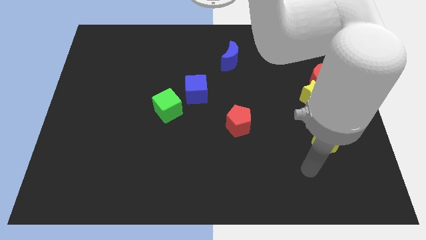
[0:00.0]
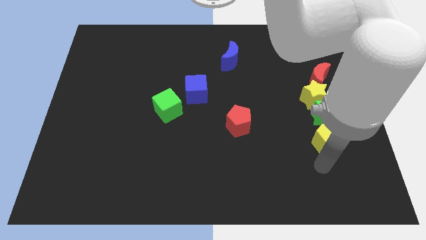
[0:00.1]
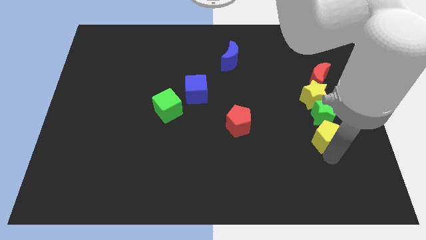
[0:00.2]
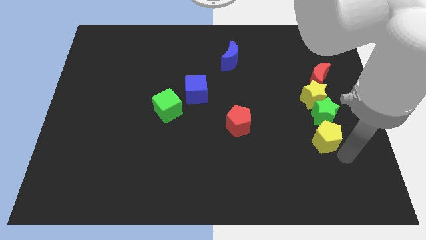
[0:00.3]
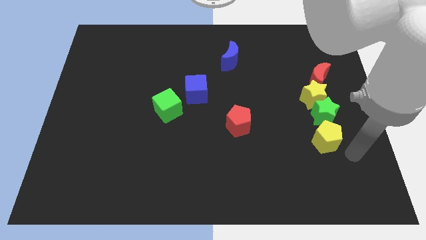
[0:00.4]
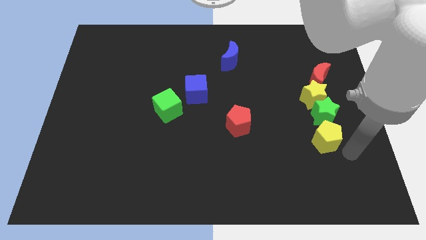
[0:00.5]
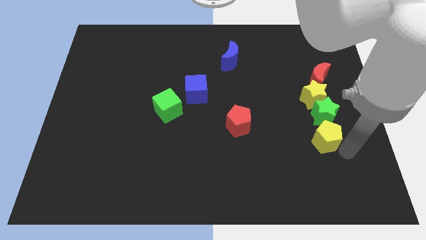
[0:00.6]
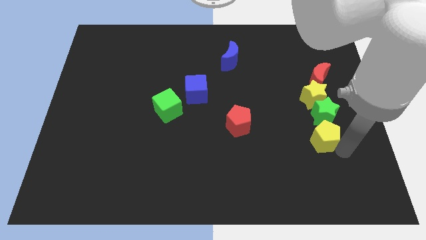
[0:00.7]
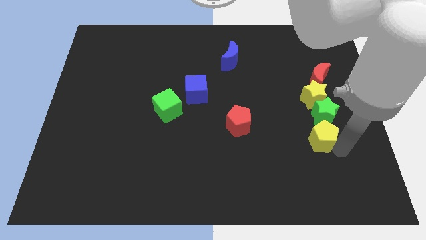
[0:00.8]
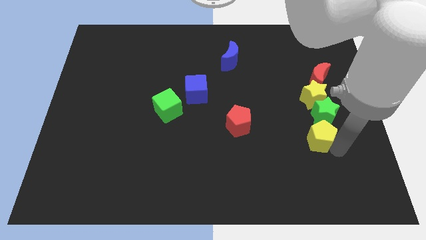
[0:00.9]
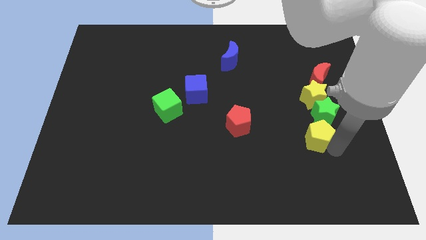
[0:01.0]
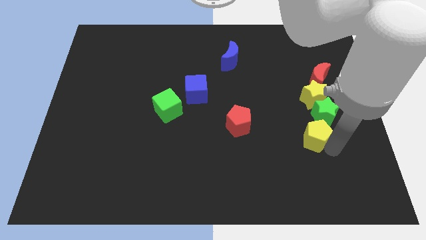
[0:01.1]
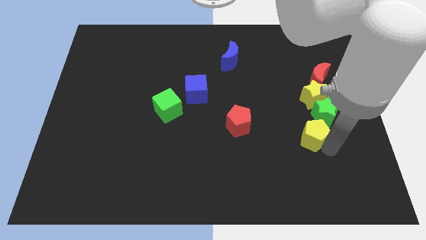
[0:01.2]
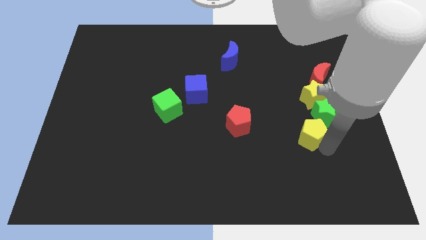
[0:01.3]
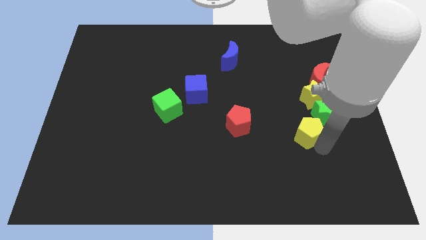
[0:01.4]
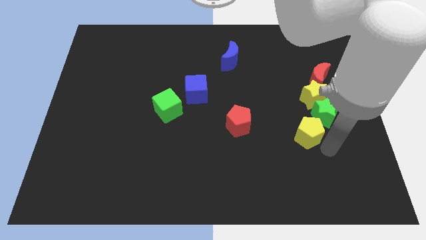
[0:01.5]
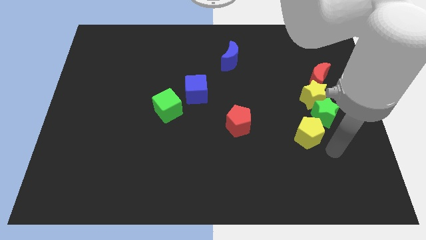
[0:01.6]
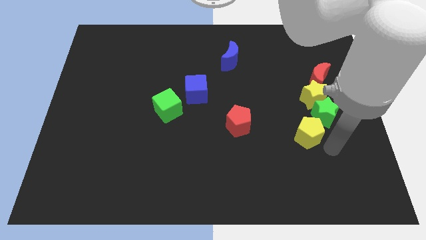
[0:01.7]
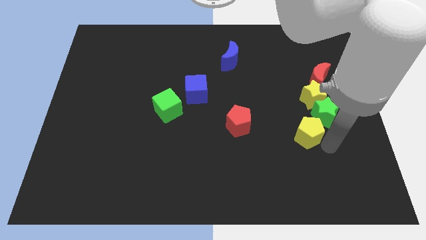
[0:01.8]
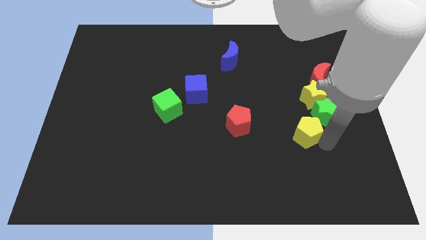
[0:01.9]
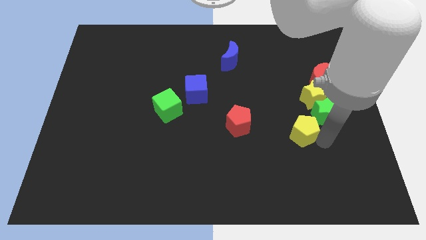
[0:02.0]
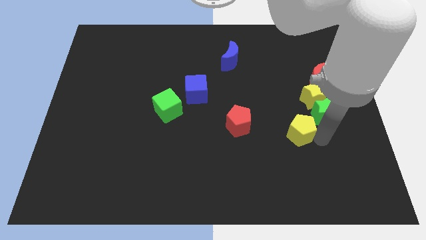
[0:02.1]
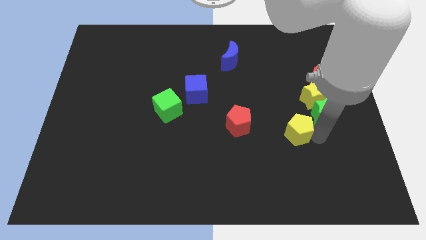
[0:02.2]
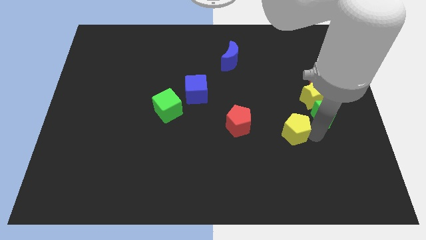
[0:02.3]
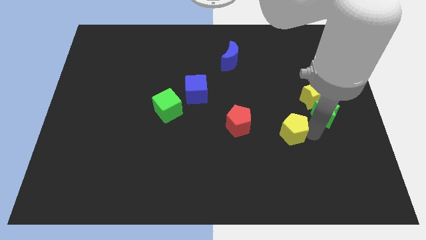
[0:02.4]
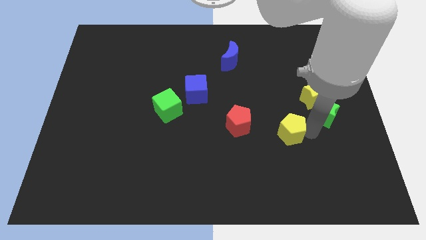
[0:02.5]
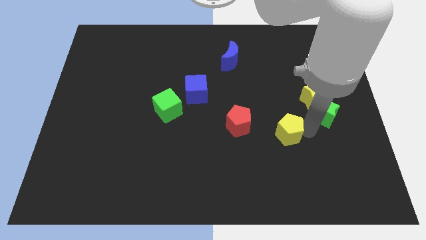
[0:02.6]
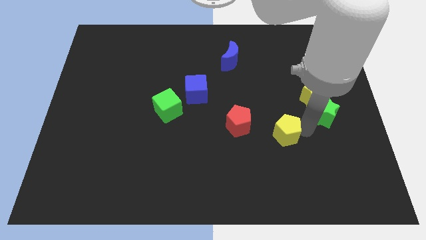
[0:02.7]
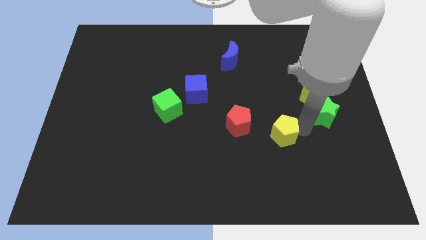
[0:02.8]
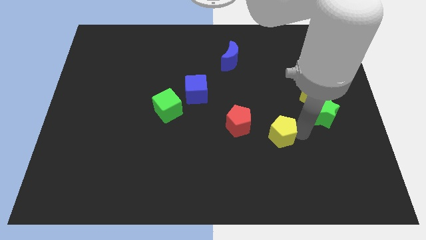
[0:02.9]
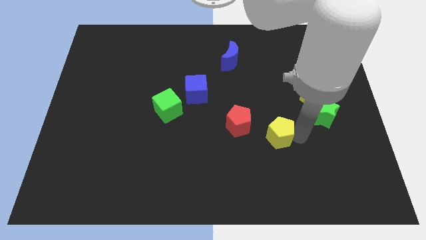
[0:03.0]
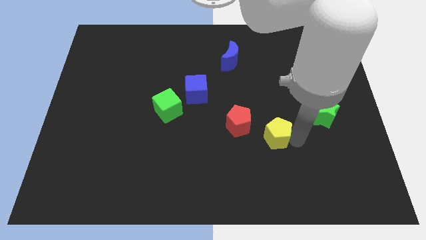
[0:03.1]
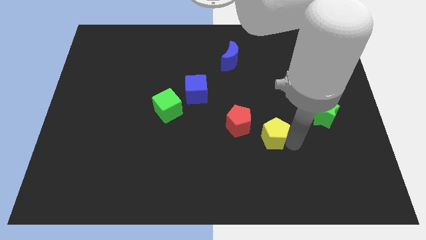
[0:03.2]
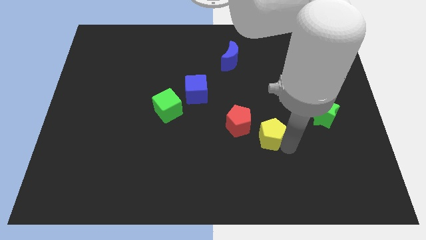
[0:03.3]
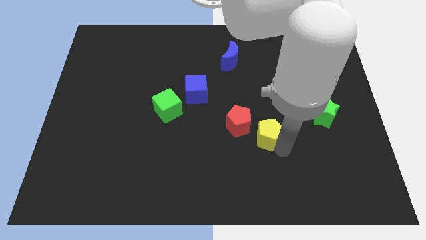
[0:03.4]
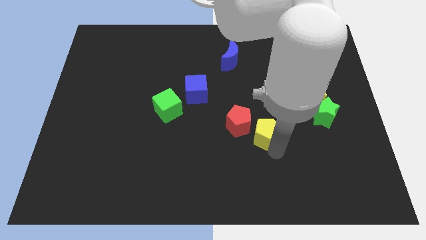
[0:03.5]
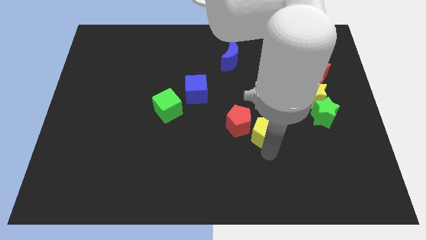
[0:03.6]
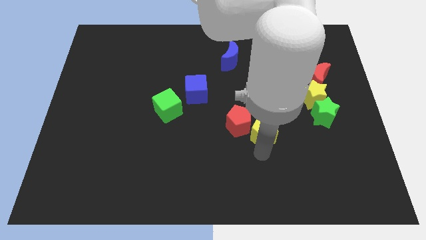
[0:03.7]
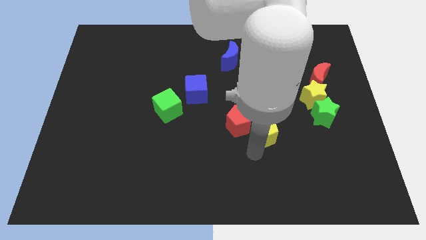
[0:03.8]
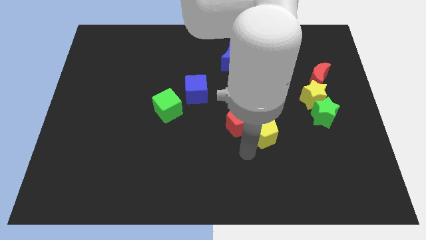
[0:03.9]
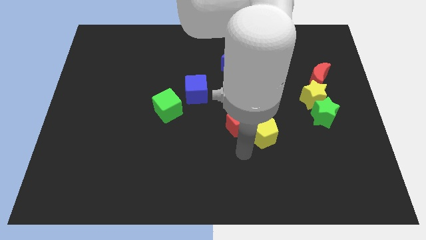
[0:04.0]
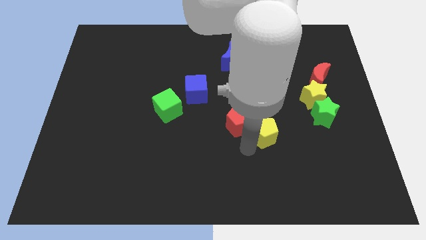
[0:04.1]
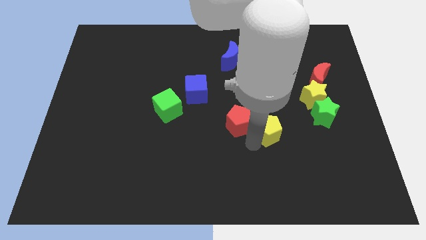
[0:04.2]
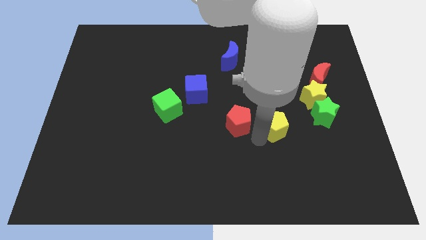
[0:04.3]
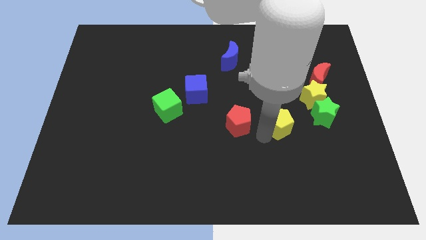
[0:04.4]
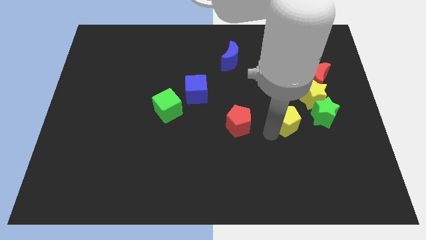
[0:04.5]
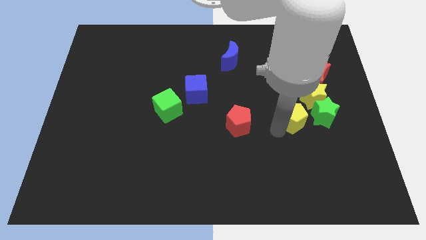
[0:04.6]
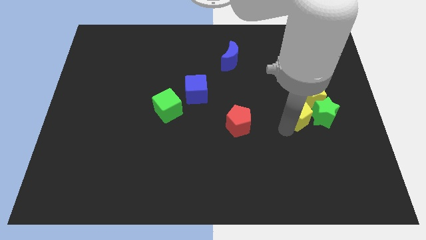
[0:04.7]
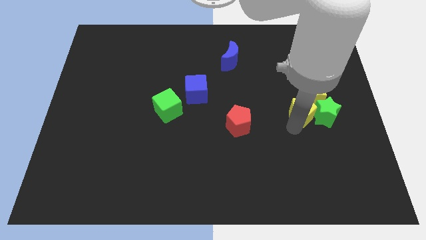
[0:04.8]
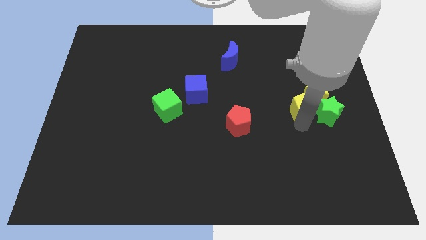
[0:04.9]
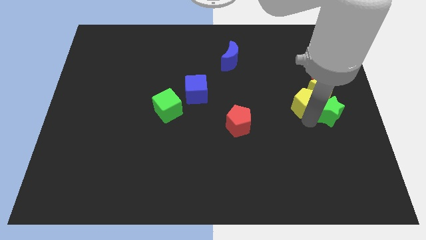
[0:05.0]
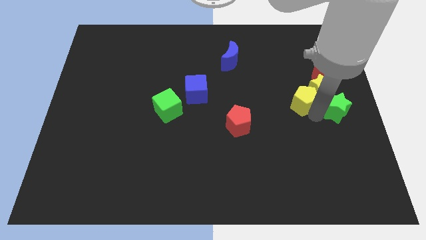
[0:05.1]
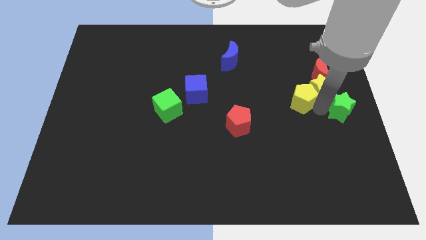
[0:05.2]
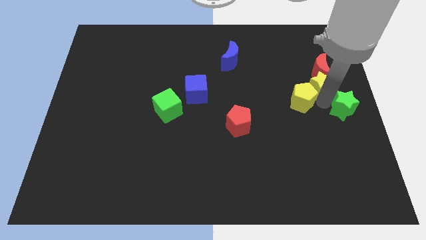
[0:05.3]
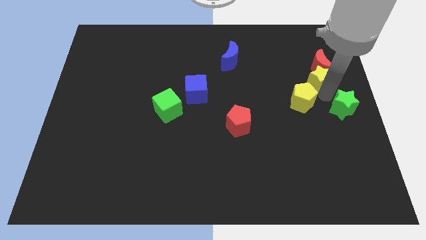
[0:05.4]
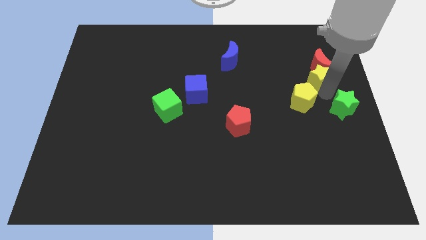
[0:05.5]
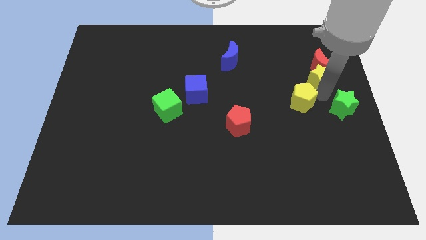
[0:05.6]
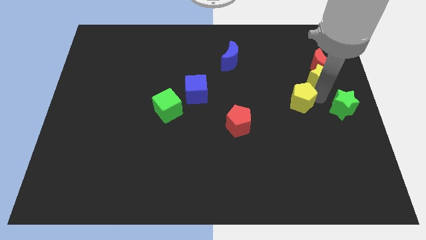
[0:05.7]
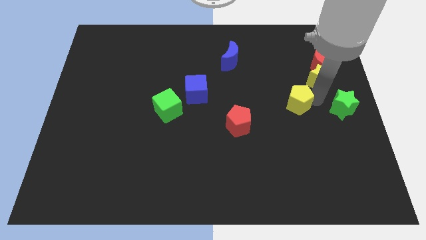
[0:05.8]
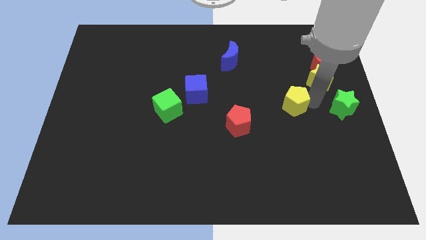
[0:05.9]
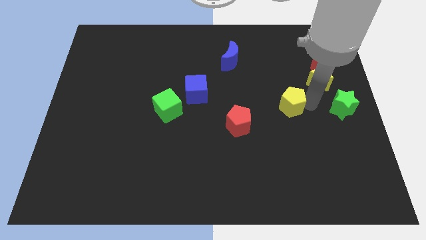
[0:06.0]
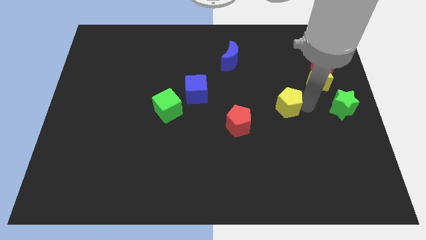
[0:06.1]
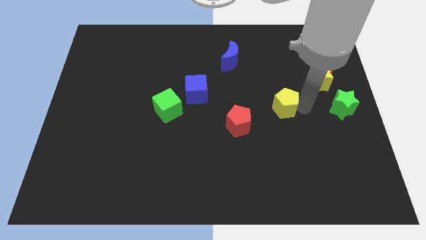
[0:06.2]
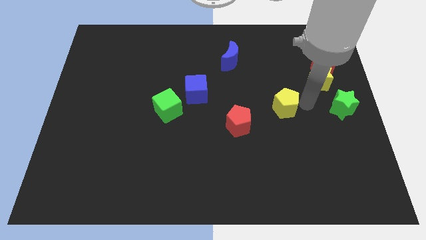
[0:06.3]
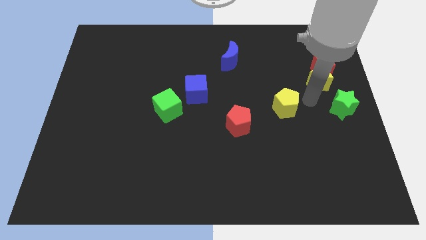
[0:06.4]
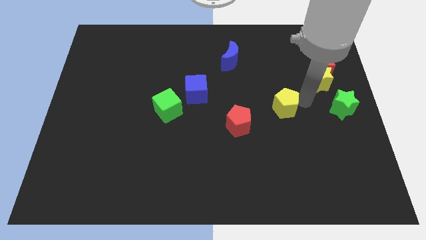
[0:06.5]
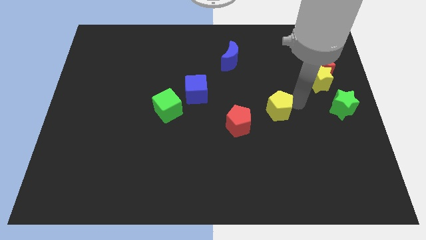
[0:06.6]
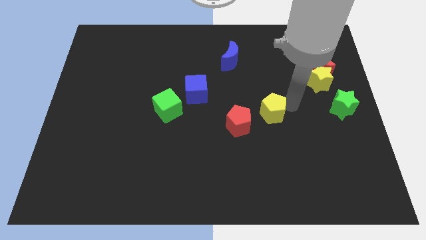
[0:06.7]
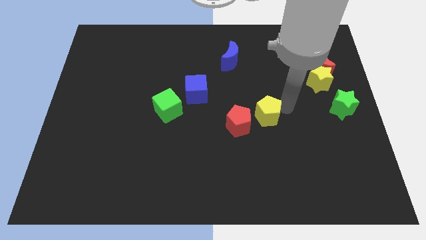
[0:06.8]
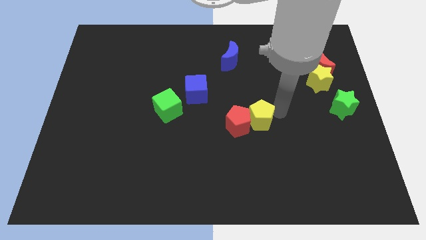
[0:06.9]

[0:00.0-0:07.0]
move the yellow pentagon to the center
